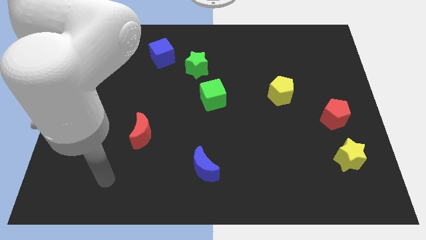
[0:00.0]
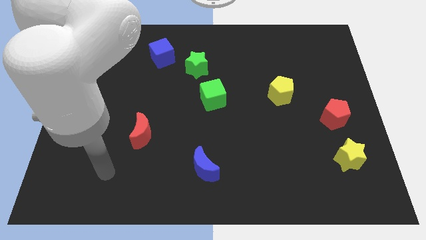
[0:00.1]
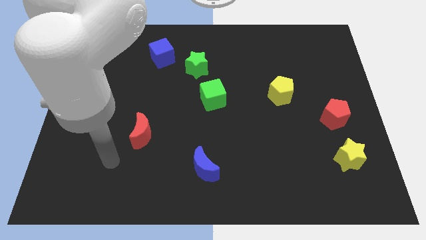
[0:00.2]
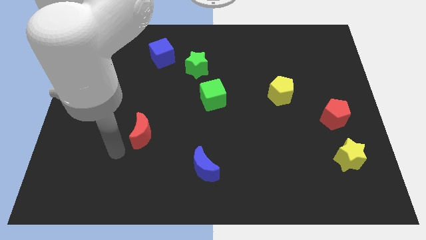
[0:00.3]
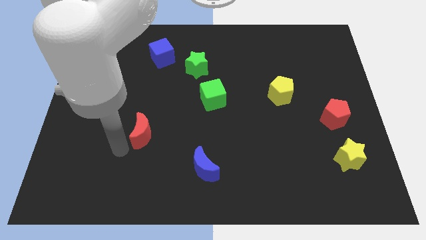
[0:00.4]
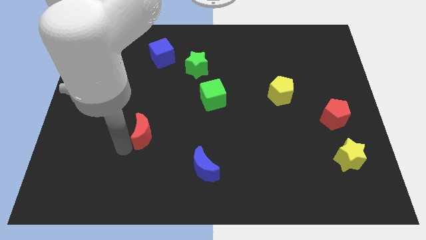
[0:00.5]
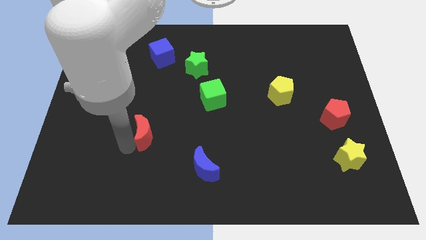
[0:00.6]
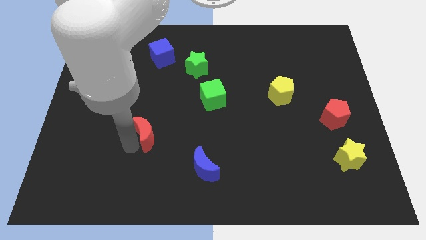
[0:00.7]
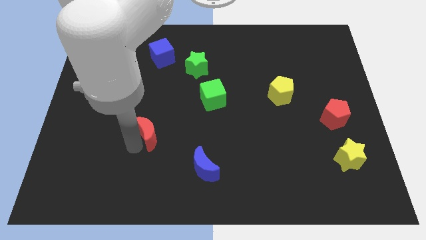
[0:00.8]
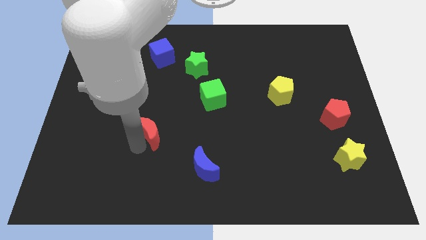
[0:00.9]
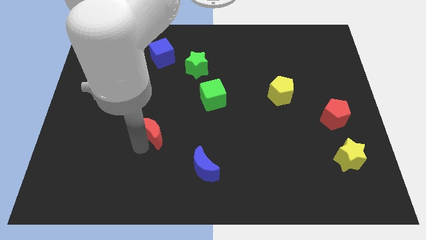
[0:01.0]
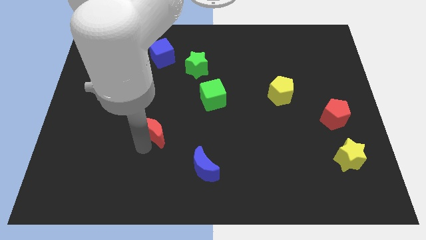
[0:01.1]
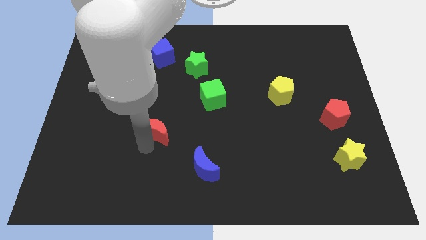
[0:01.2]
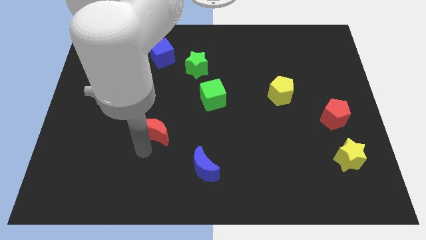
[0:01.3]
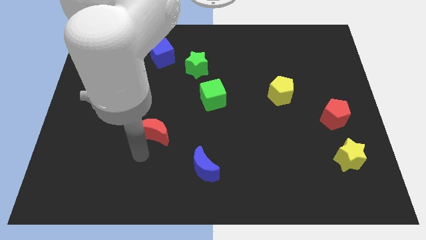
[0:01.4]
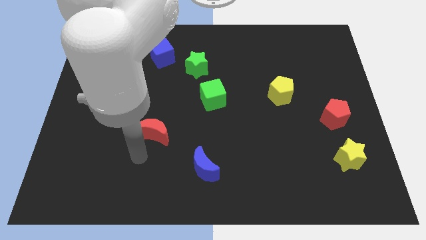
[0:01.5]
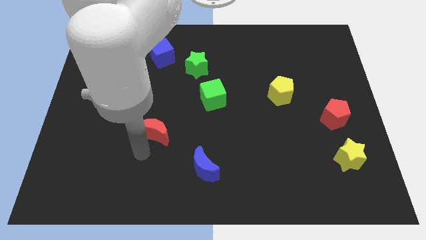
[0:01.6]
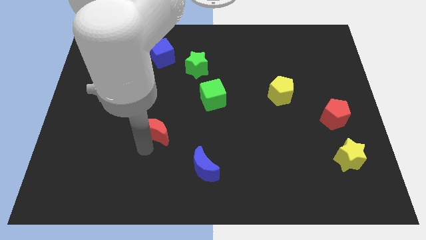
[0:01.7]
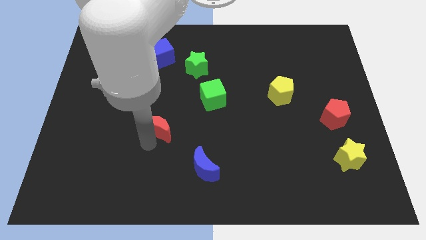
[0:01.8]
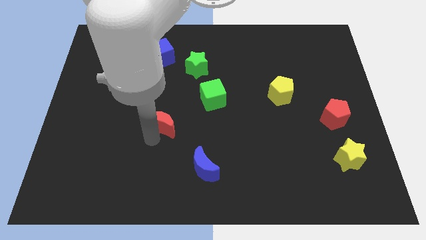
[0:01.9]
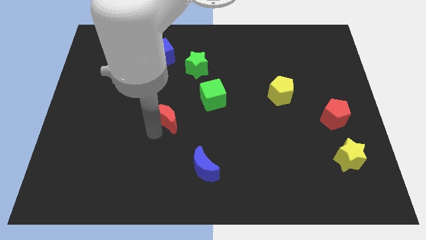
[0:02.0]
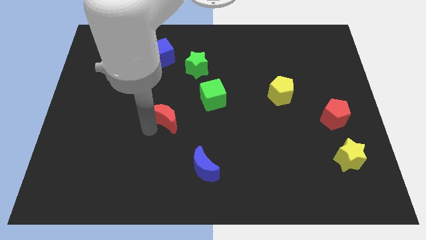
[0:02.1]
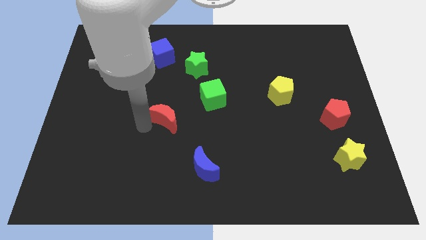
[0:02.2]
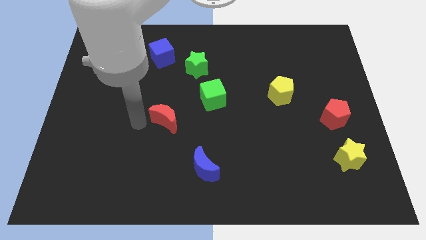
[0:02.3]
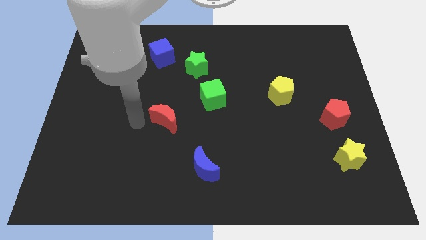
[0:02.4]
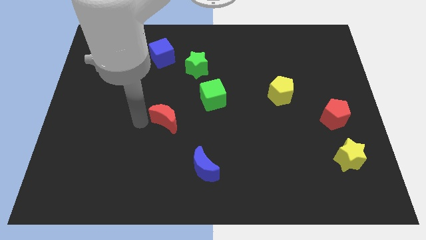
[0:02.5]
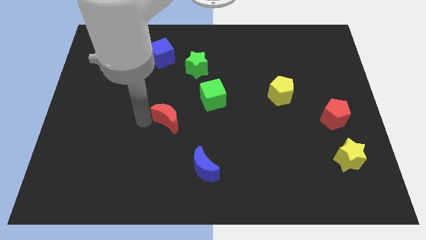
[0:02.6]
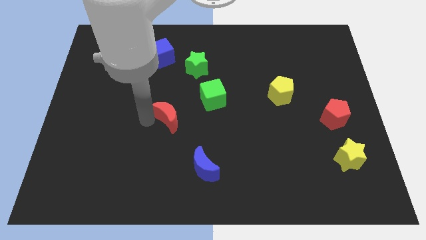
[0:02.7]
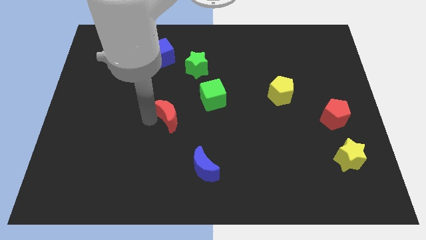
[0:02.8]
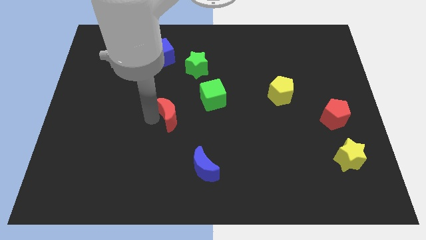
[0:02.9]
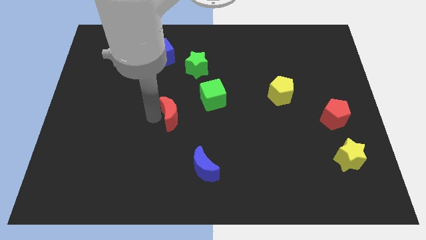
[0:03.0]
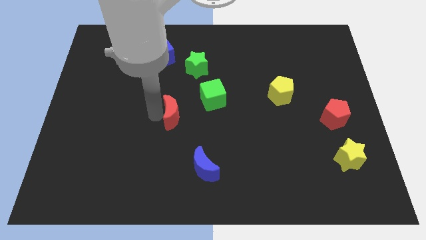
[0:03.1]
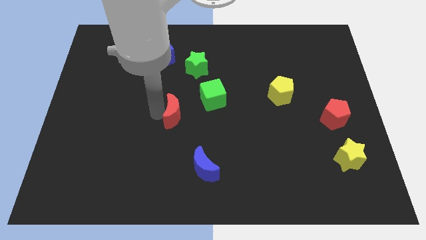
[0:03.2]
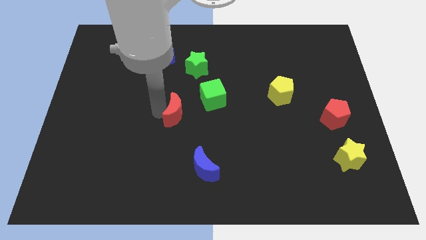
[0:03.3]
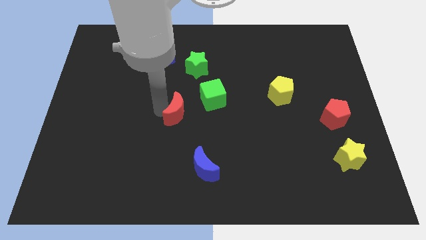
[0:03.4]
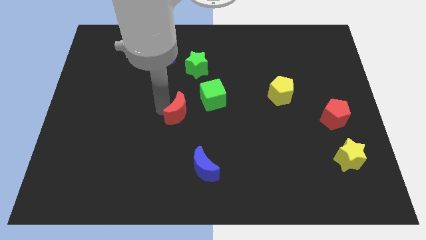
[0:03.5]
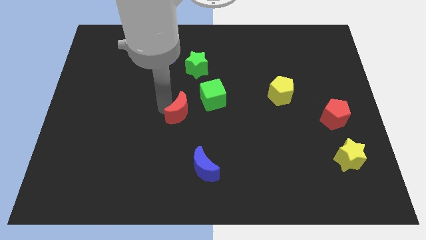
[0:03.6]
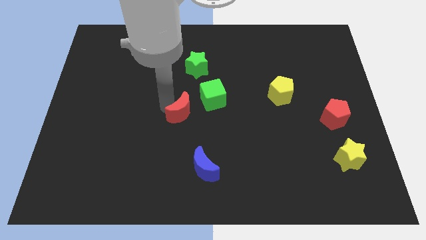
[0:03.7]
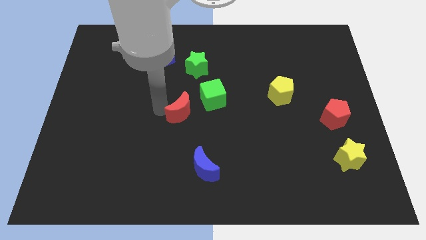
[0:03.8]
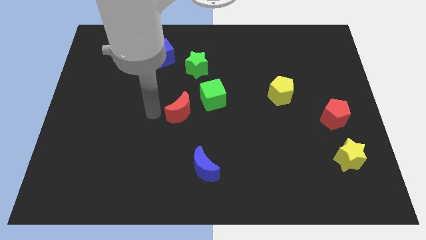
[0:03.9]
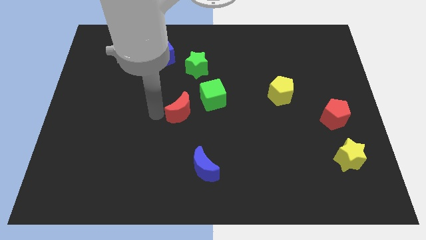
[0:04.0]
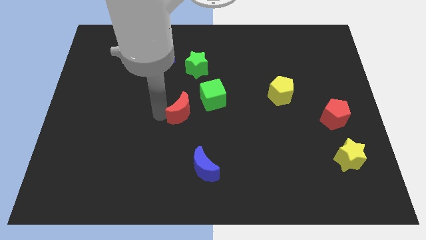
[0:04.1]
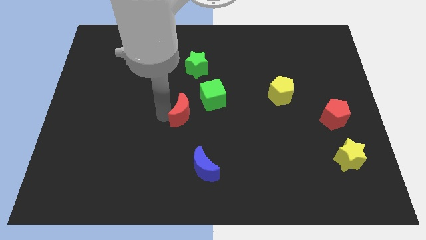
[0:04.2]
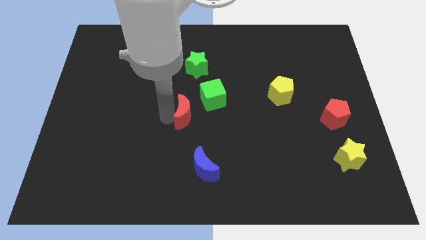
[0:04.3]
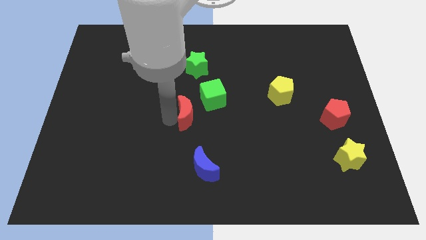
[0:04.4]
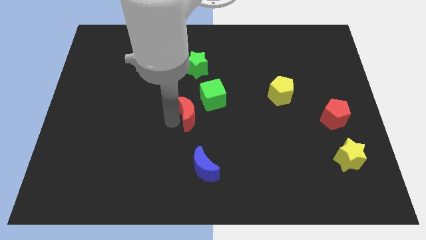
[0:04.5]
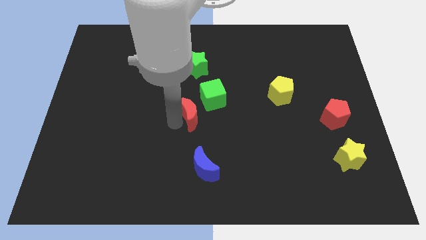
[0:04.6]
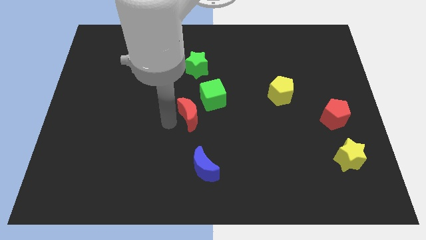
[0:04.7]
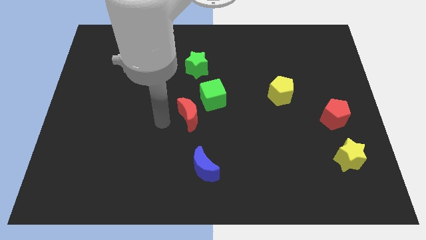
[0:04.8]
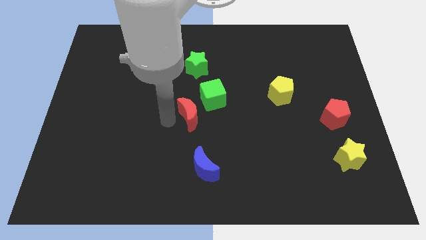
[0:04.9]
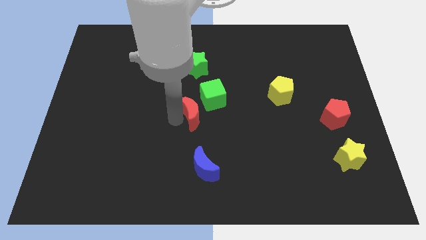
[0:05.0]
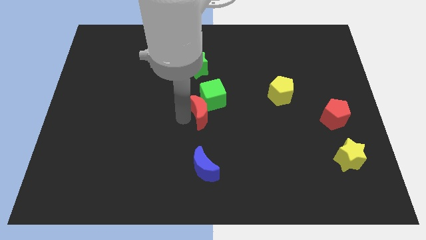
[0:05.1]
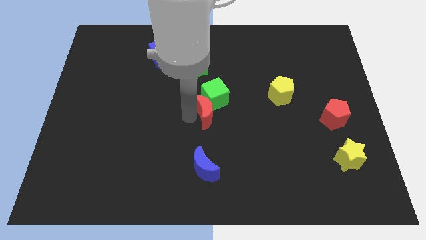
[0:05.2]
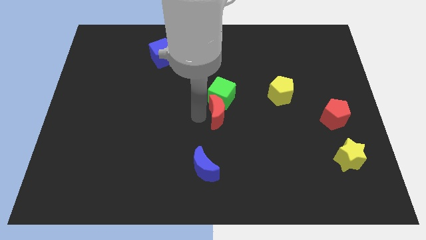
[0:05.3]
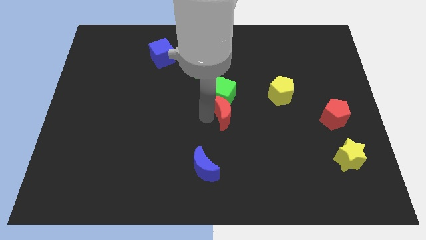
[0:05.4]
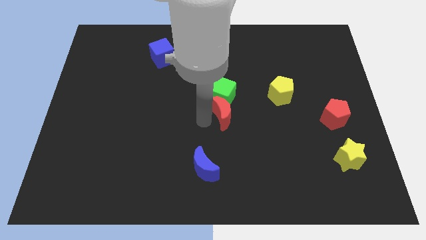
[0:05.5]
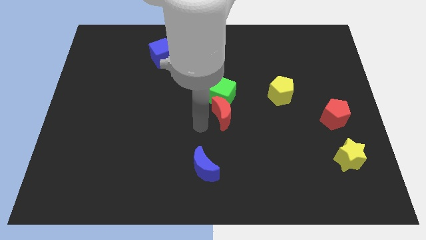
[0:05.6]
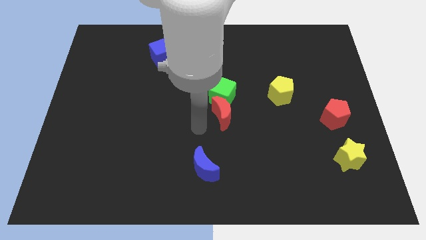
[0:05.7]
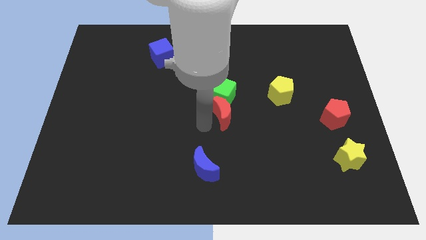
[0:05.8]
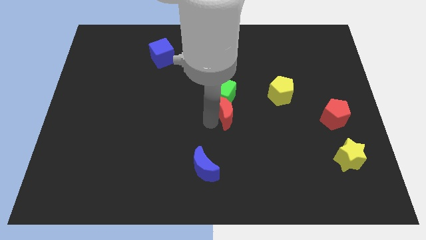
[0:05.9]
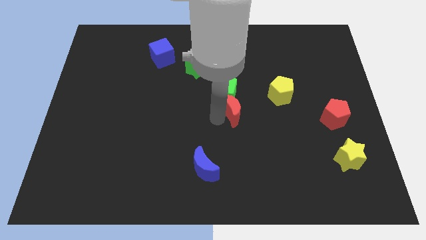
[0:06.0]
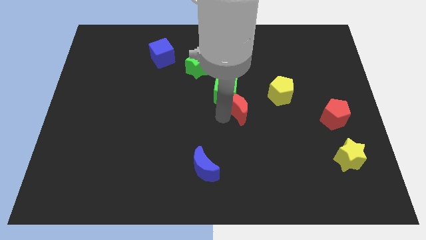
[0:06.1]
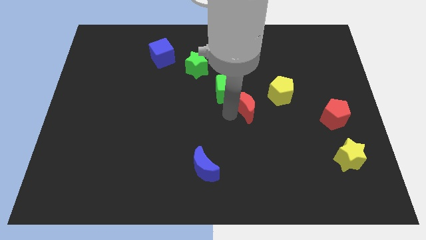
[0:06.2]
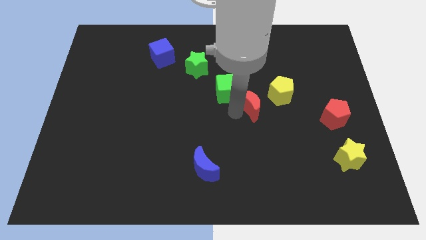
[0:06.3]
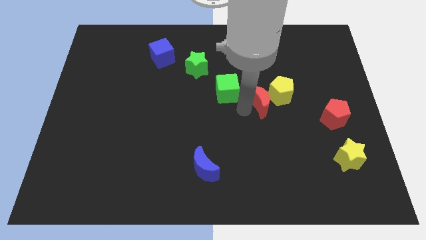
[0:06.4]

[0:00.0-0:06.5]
put the red moon next to the yellow pentagon

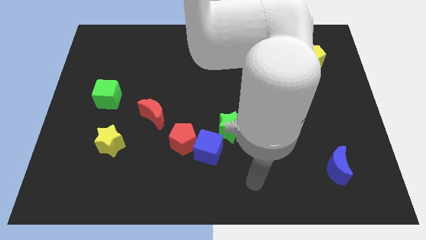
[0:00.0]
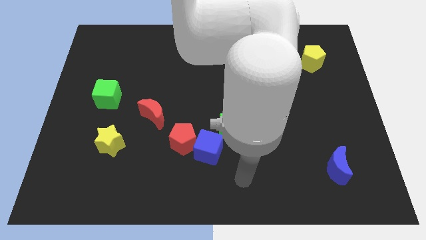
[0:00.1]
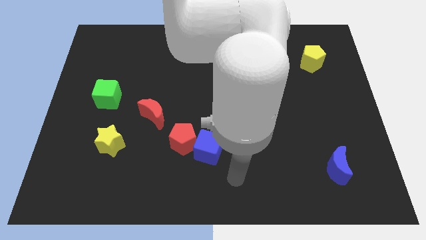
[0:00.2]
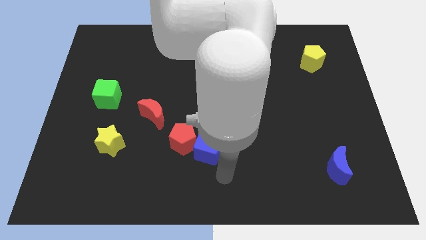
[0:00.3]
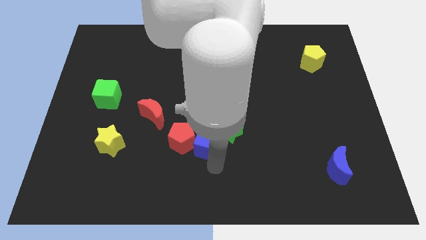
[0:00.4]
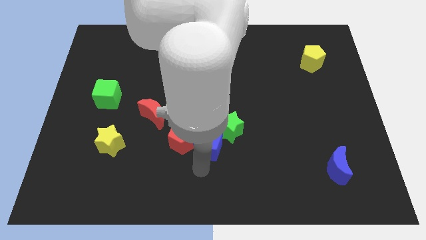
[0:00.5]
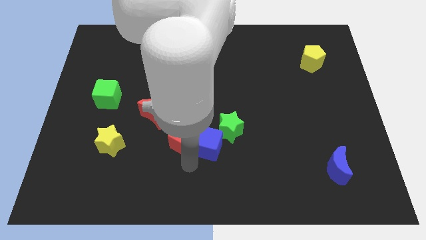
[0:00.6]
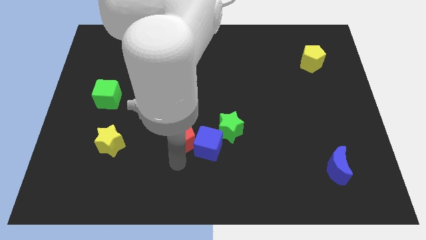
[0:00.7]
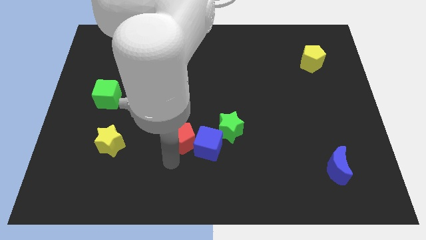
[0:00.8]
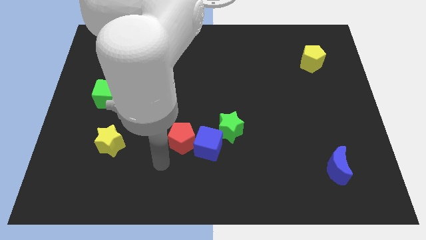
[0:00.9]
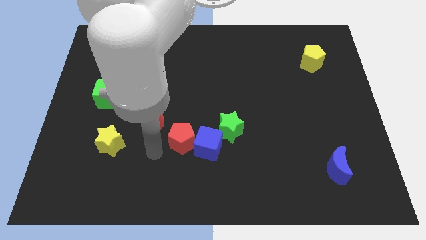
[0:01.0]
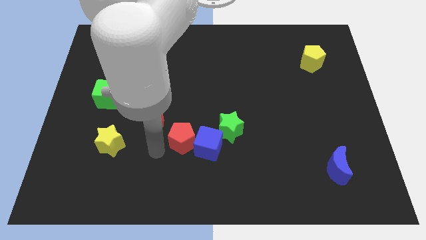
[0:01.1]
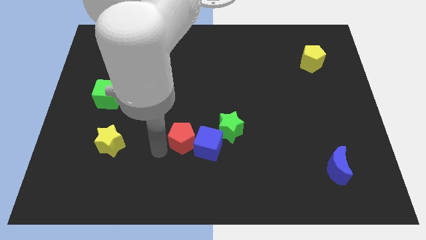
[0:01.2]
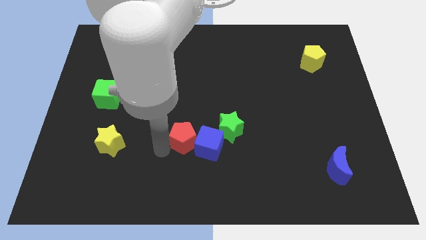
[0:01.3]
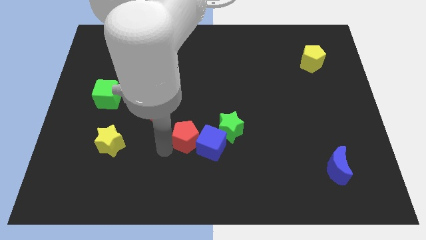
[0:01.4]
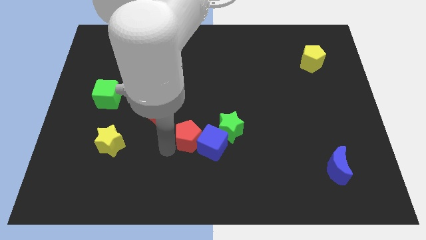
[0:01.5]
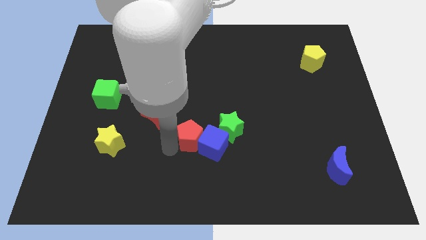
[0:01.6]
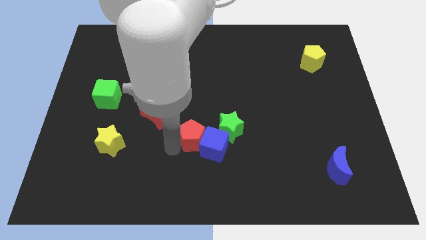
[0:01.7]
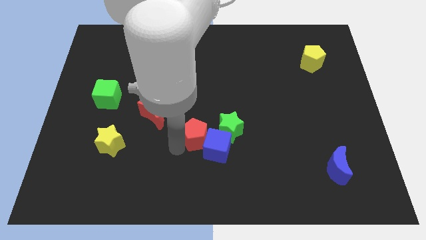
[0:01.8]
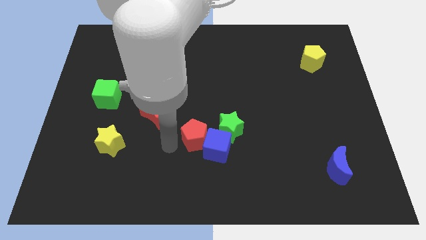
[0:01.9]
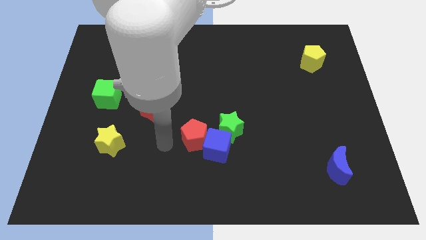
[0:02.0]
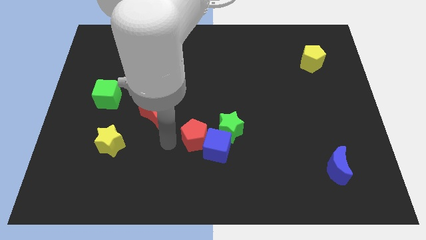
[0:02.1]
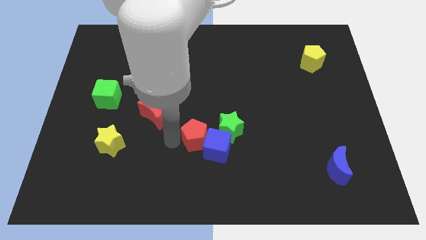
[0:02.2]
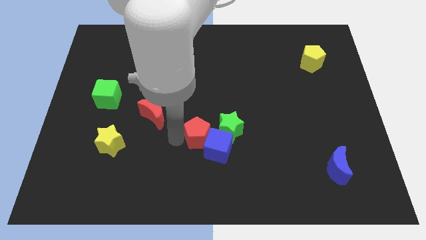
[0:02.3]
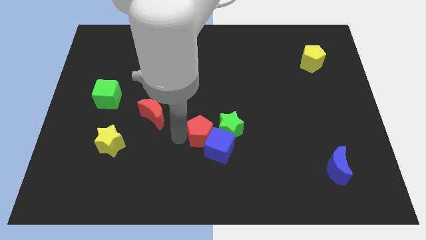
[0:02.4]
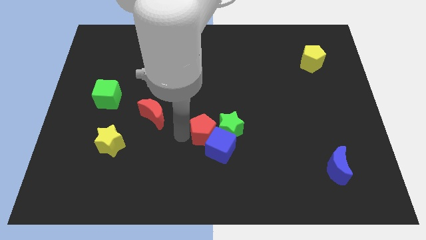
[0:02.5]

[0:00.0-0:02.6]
move the red pentagon to the green star
